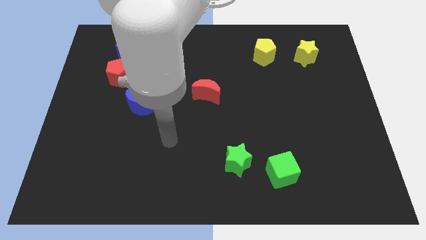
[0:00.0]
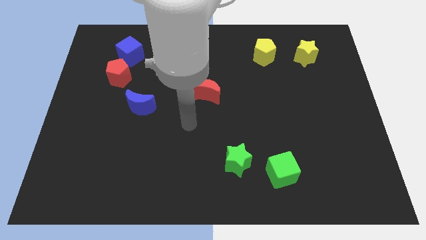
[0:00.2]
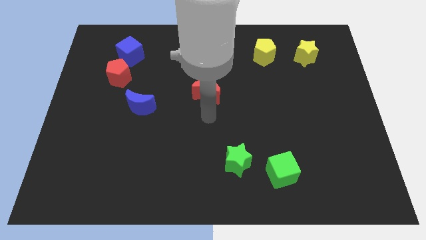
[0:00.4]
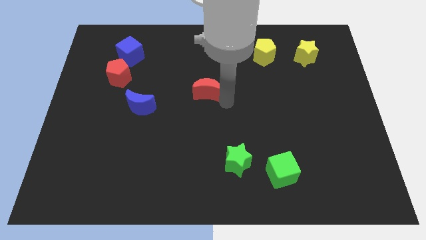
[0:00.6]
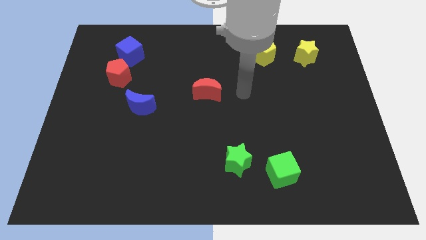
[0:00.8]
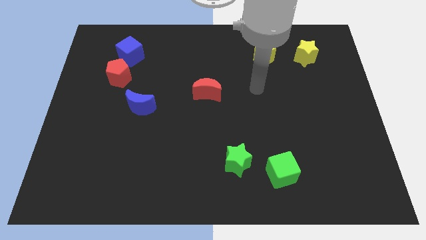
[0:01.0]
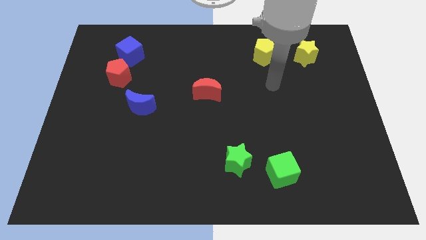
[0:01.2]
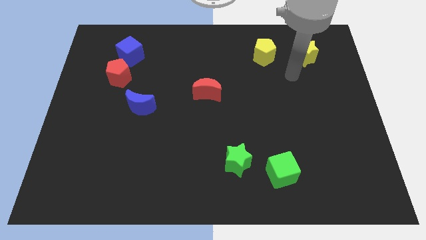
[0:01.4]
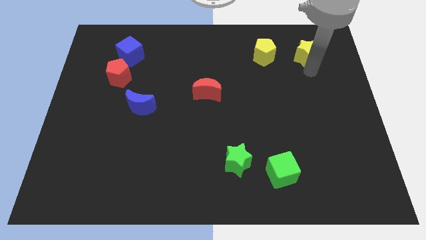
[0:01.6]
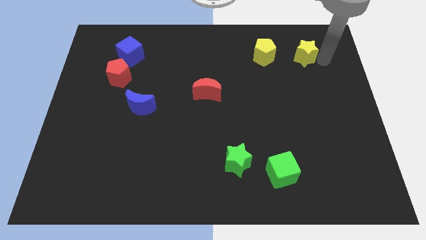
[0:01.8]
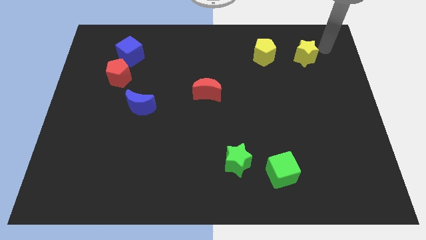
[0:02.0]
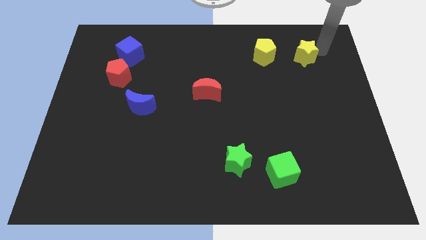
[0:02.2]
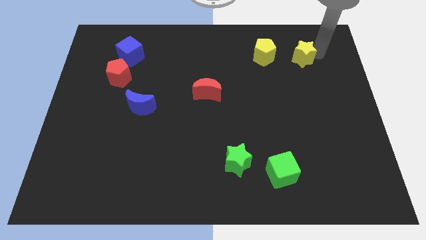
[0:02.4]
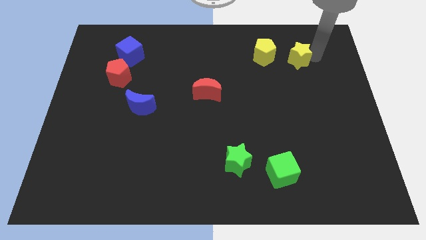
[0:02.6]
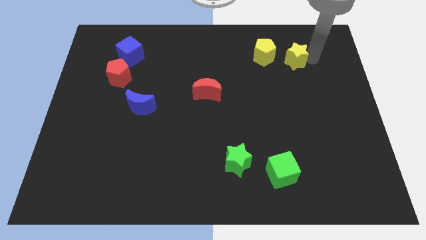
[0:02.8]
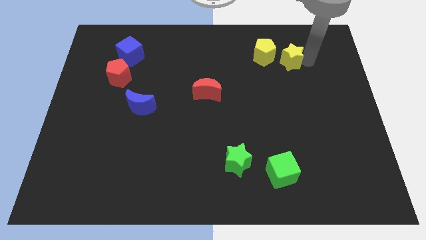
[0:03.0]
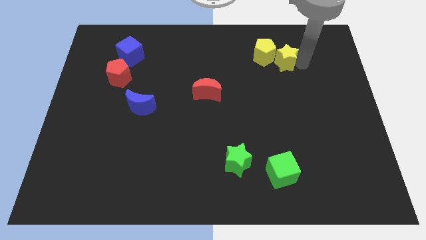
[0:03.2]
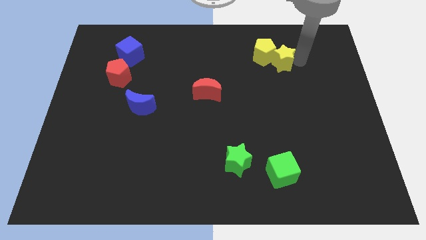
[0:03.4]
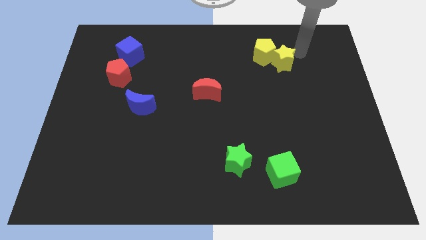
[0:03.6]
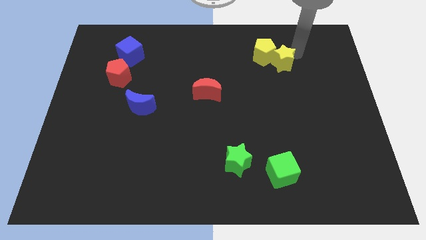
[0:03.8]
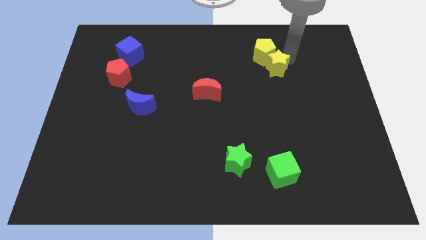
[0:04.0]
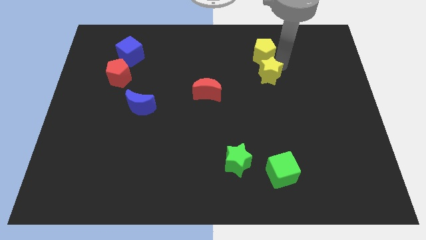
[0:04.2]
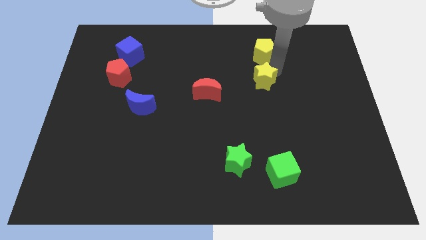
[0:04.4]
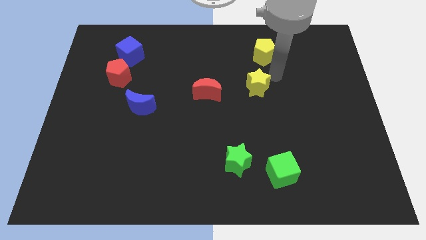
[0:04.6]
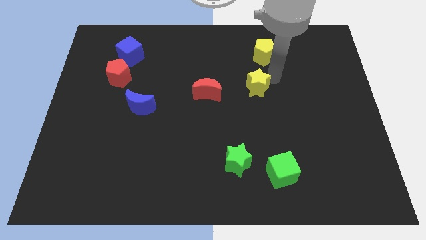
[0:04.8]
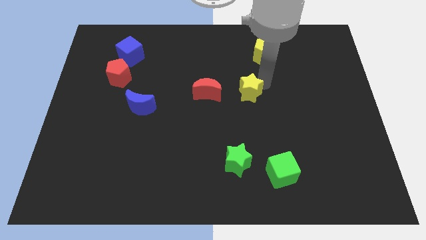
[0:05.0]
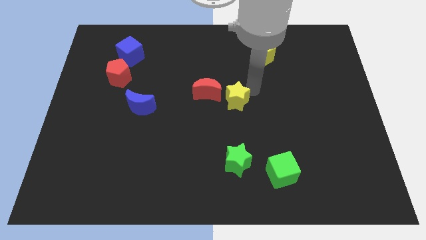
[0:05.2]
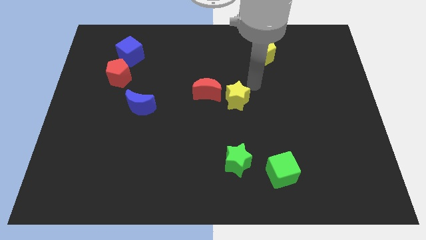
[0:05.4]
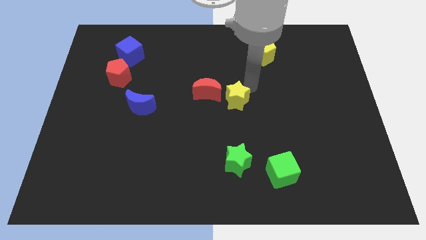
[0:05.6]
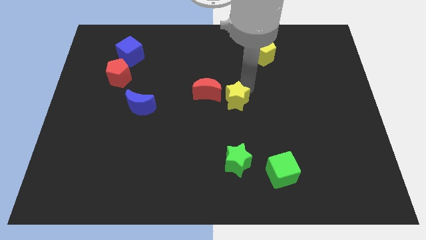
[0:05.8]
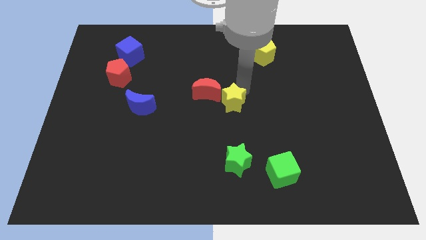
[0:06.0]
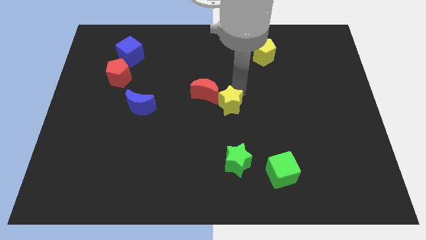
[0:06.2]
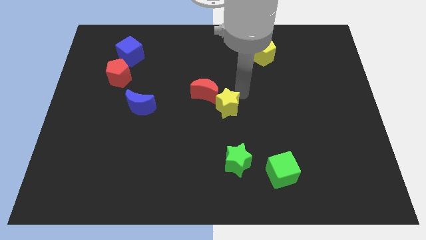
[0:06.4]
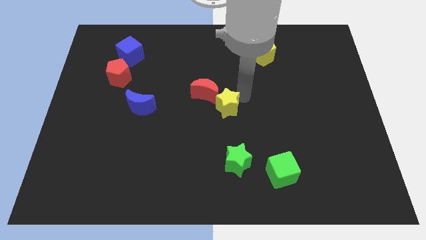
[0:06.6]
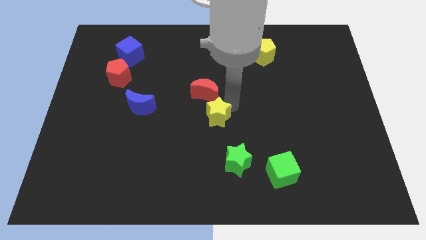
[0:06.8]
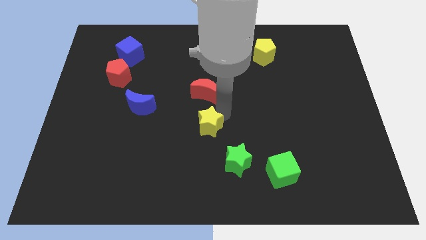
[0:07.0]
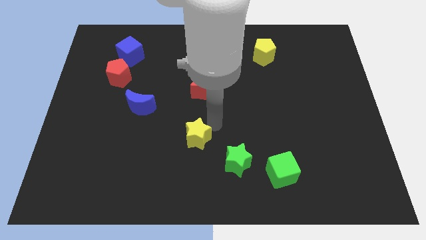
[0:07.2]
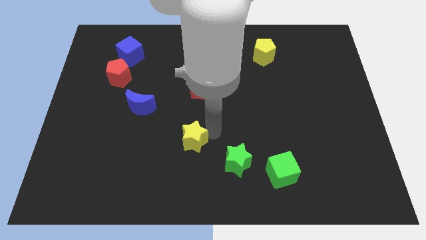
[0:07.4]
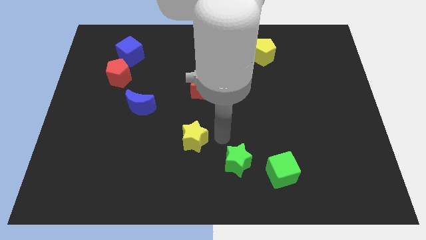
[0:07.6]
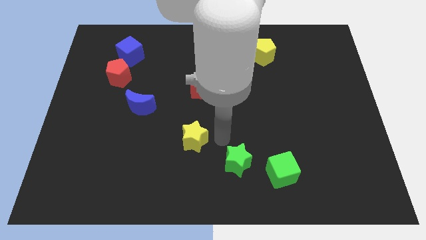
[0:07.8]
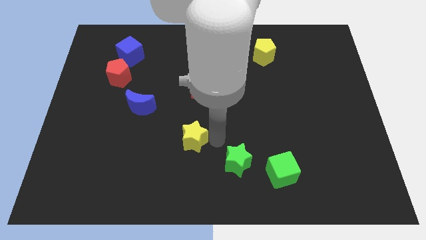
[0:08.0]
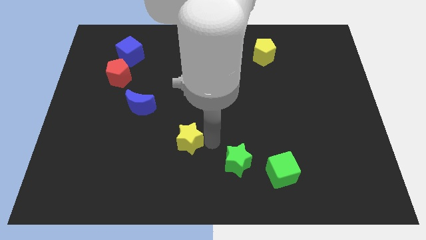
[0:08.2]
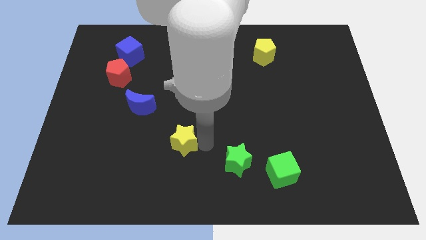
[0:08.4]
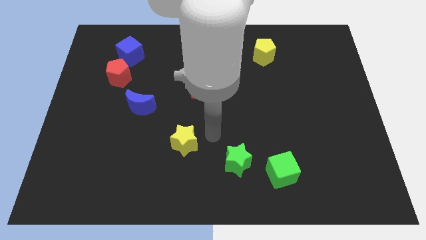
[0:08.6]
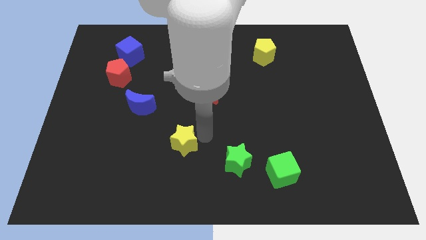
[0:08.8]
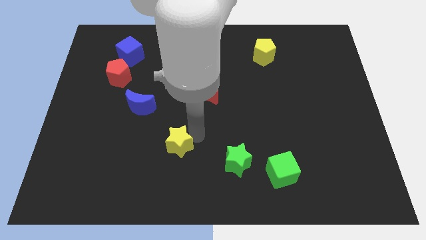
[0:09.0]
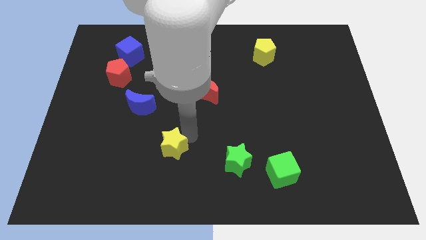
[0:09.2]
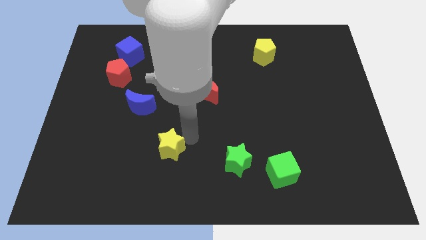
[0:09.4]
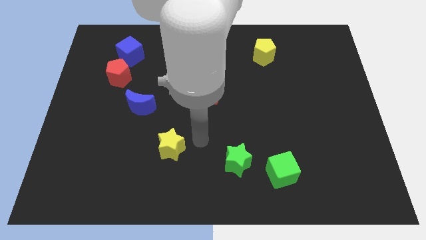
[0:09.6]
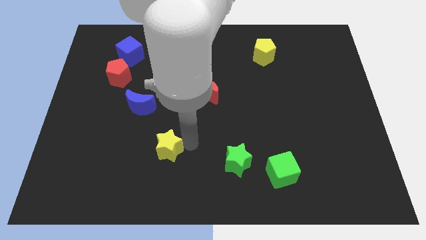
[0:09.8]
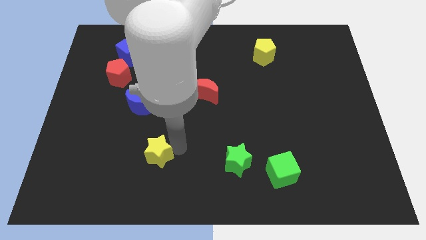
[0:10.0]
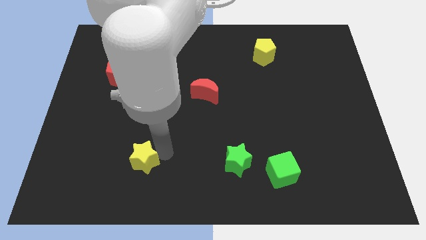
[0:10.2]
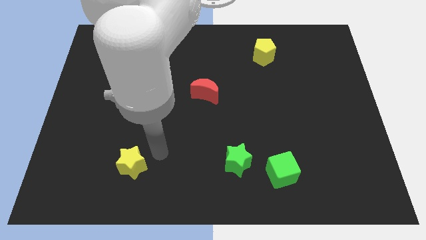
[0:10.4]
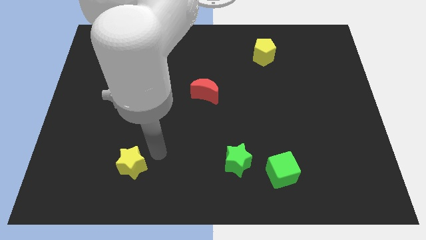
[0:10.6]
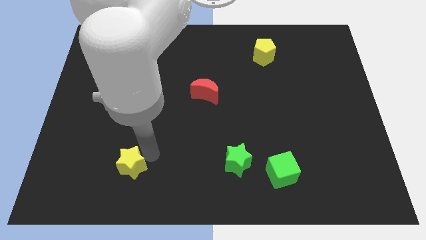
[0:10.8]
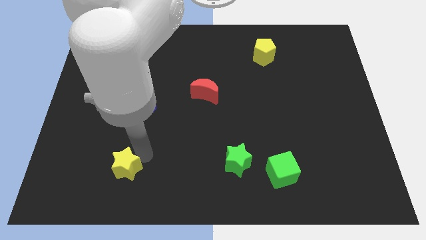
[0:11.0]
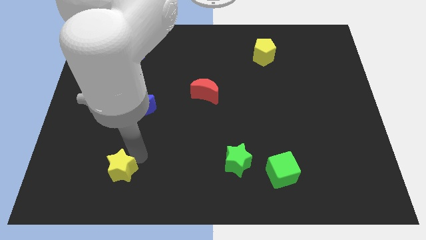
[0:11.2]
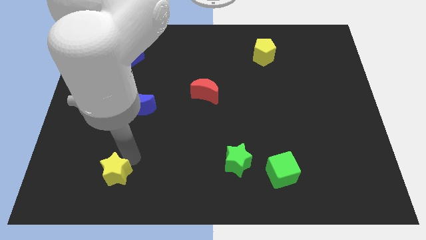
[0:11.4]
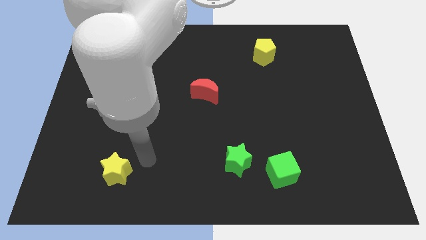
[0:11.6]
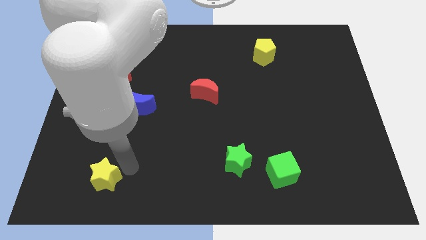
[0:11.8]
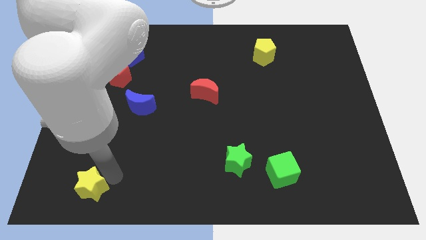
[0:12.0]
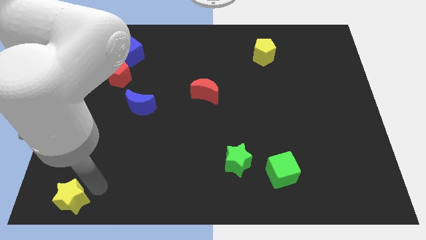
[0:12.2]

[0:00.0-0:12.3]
put the yellow star to the lower left corner
